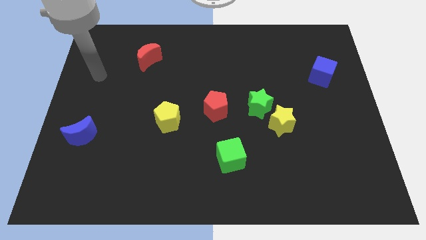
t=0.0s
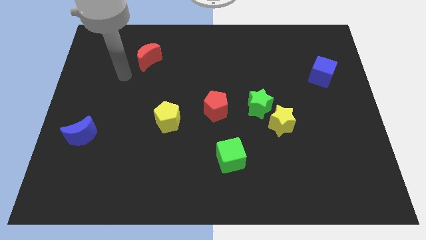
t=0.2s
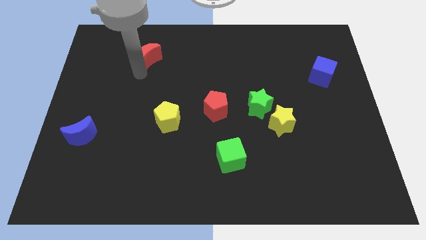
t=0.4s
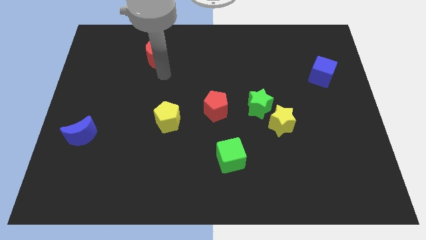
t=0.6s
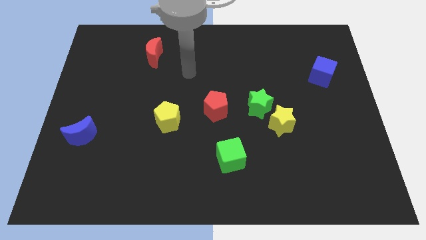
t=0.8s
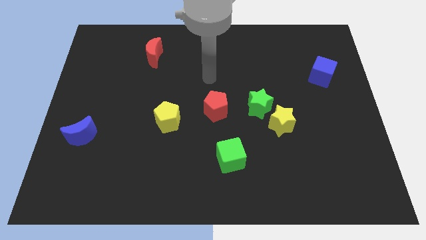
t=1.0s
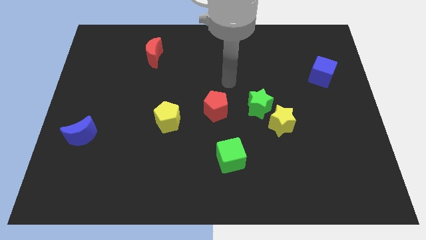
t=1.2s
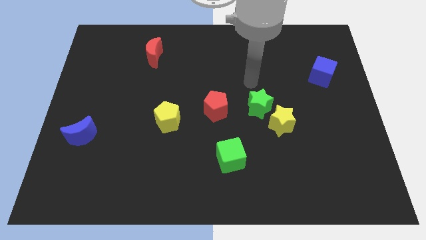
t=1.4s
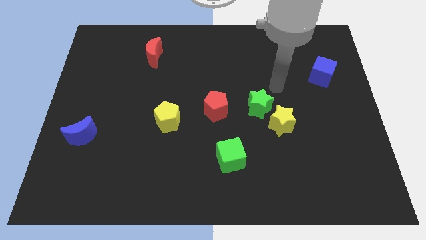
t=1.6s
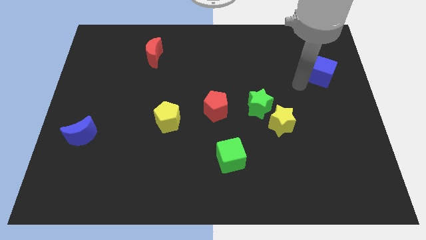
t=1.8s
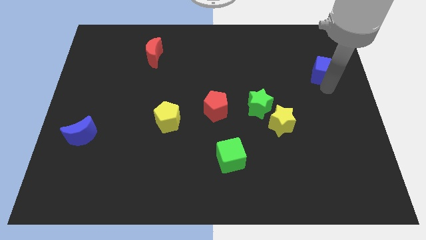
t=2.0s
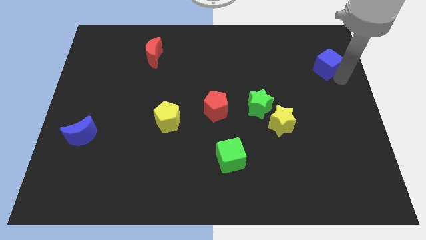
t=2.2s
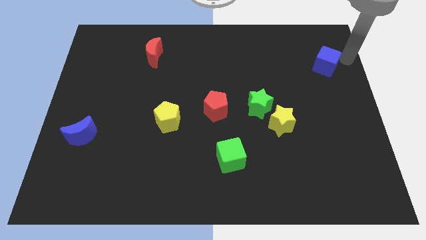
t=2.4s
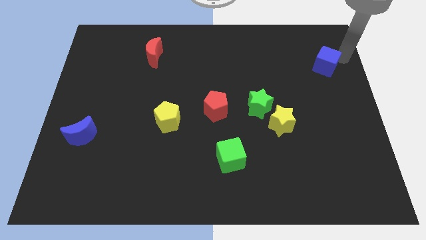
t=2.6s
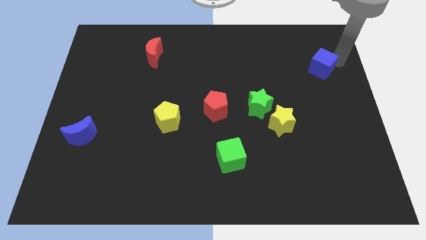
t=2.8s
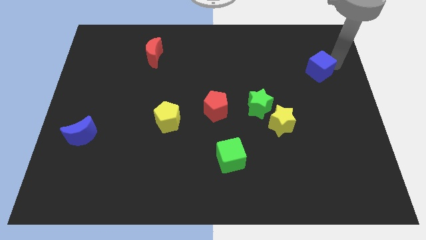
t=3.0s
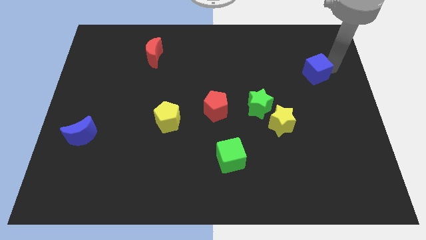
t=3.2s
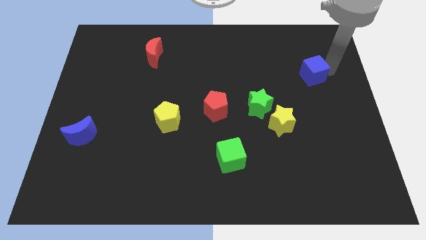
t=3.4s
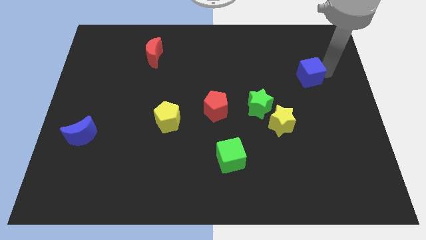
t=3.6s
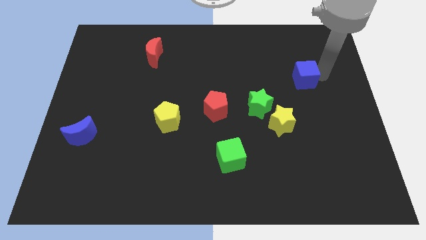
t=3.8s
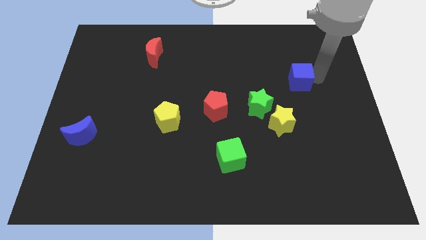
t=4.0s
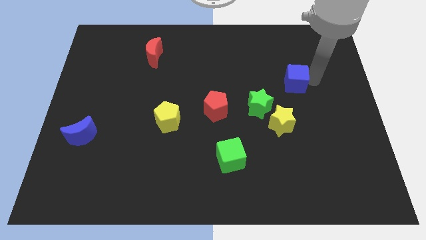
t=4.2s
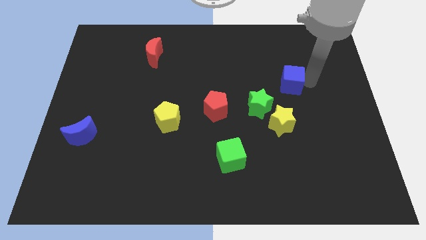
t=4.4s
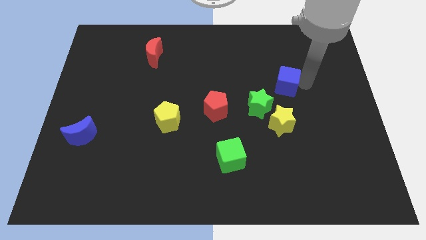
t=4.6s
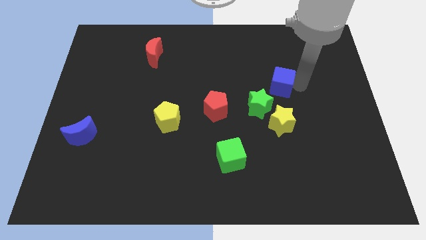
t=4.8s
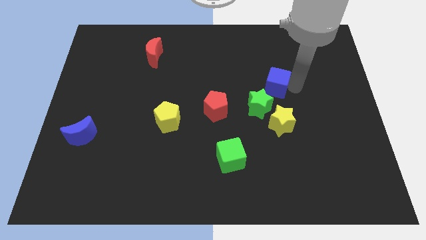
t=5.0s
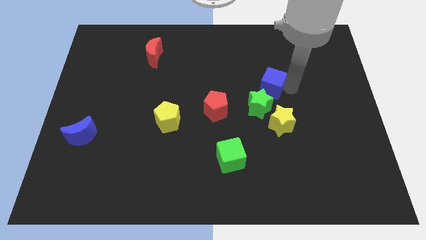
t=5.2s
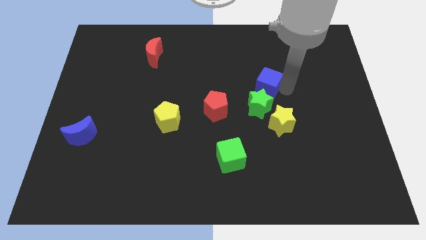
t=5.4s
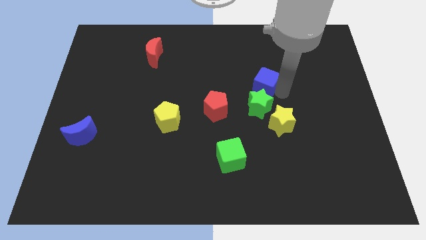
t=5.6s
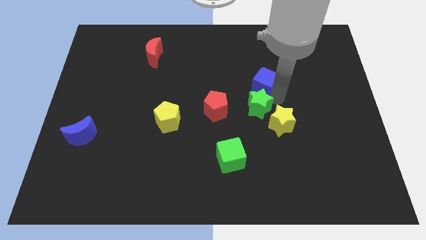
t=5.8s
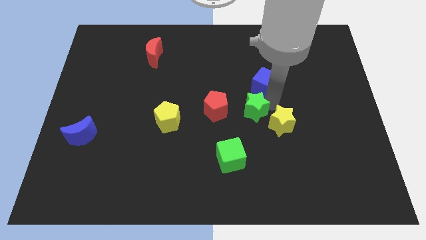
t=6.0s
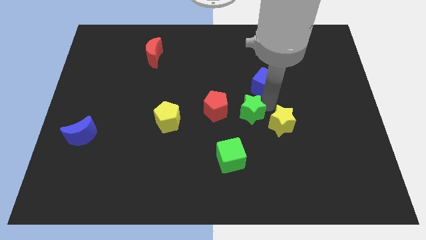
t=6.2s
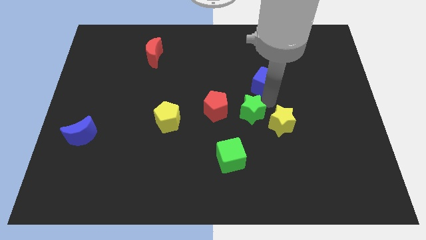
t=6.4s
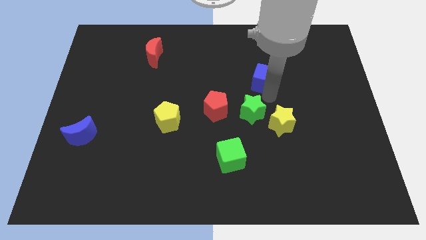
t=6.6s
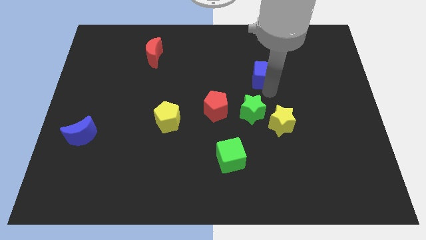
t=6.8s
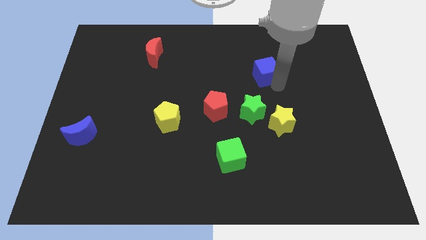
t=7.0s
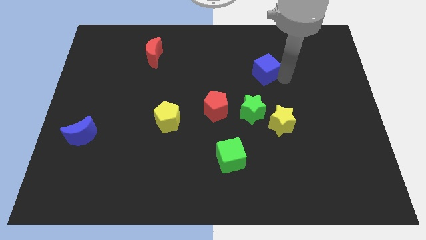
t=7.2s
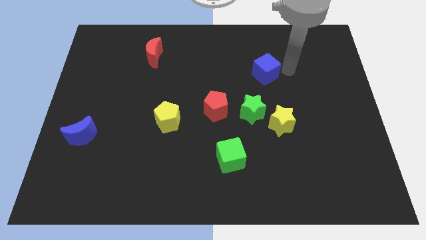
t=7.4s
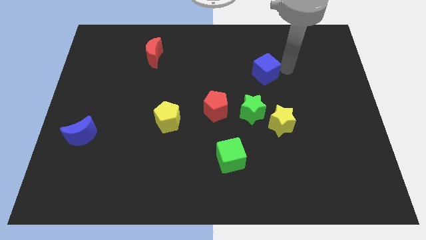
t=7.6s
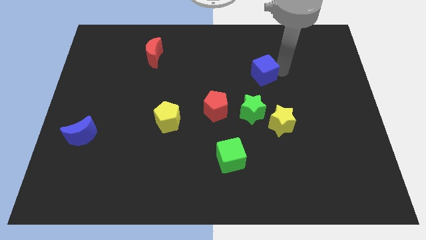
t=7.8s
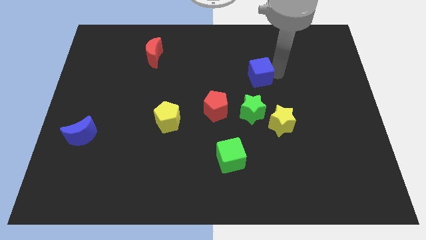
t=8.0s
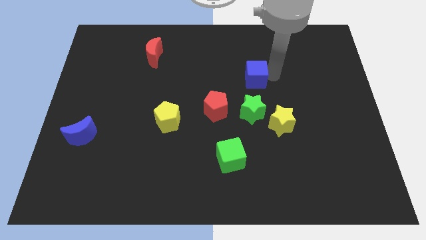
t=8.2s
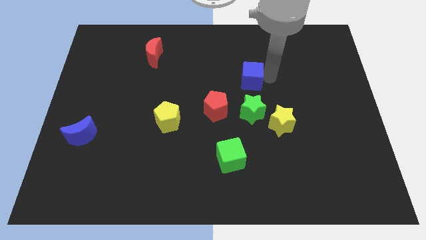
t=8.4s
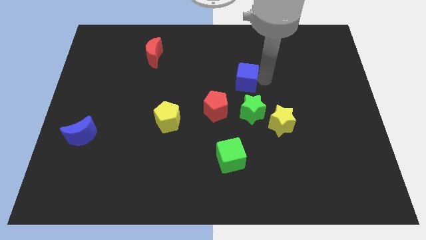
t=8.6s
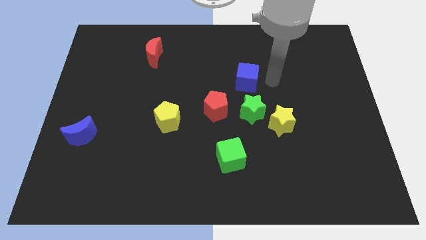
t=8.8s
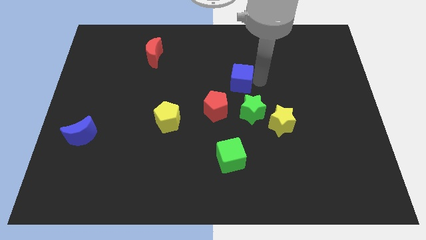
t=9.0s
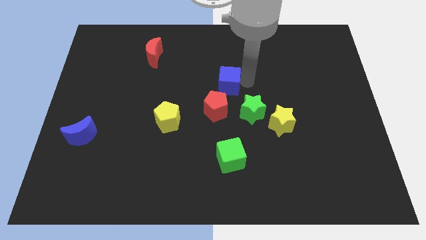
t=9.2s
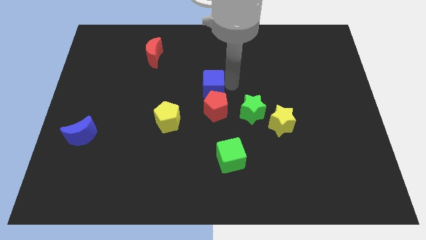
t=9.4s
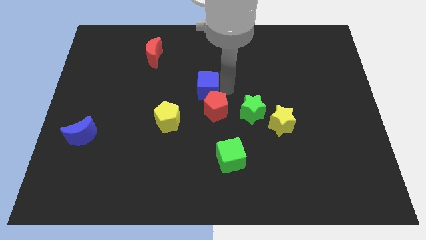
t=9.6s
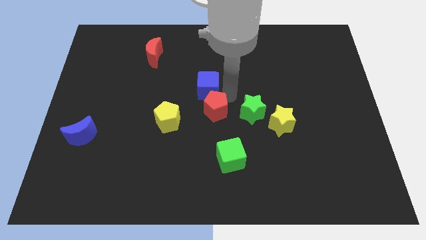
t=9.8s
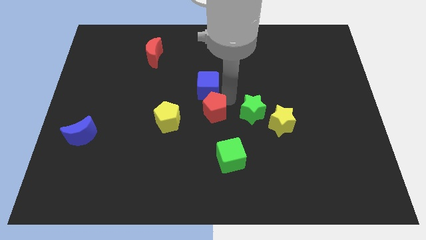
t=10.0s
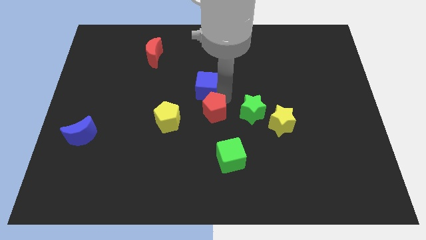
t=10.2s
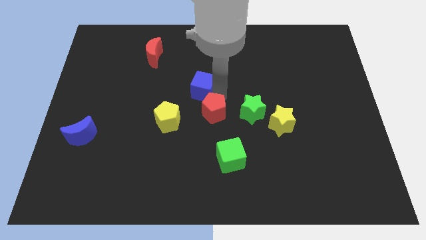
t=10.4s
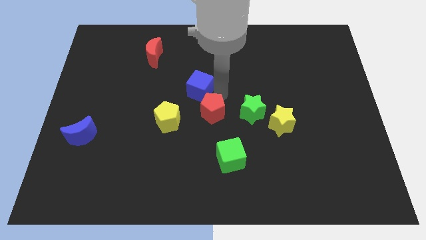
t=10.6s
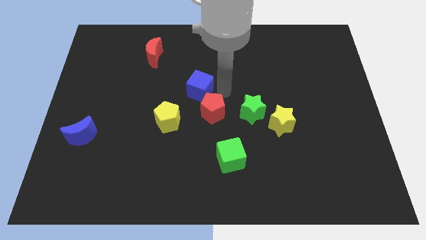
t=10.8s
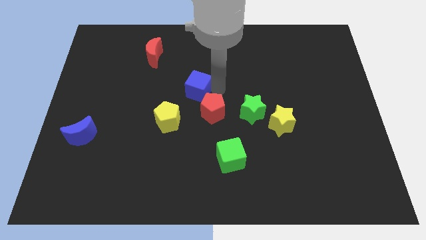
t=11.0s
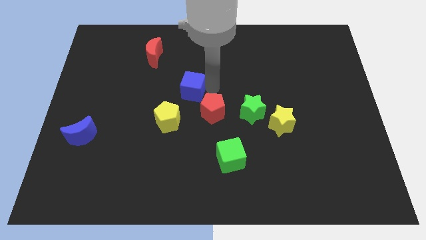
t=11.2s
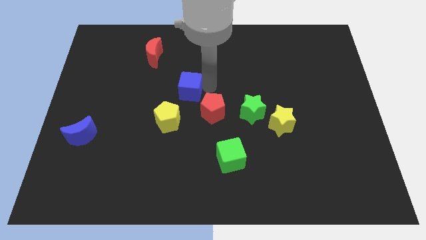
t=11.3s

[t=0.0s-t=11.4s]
put the blue cube above the yellow pentagon

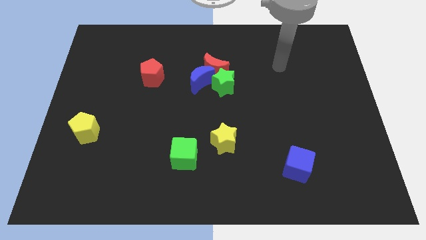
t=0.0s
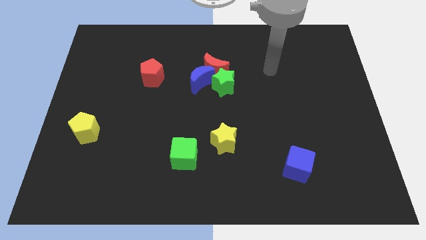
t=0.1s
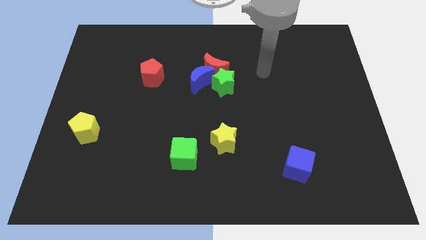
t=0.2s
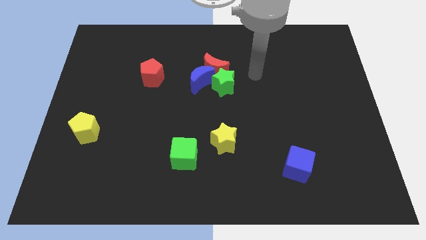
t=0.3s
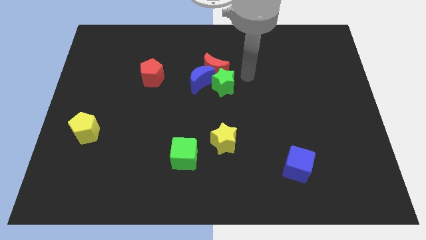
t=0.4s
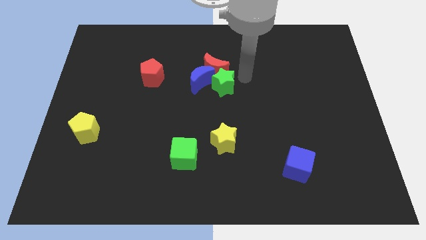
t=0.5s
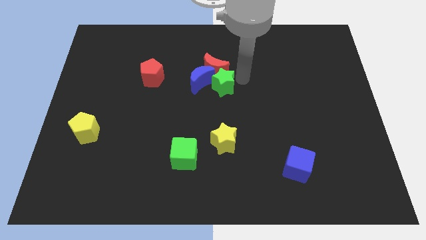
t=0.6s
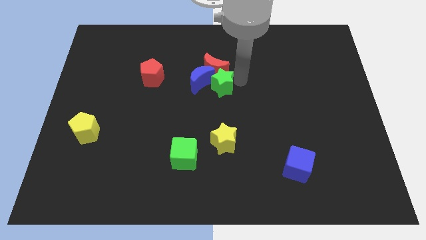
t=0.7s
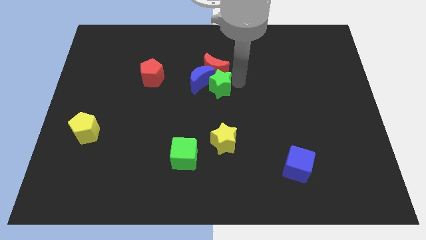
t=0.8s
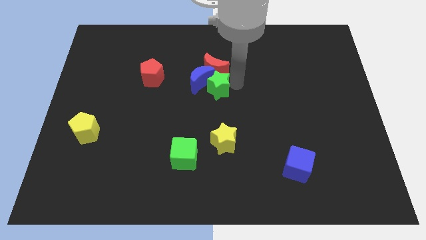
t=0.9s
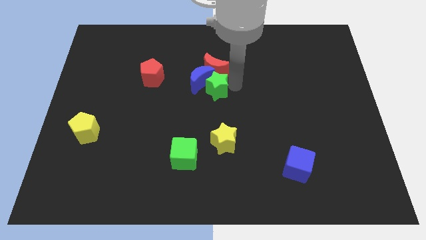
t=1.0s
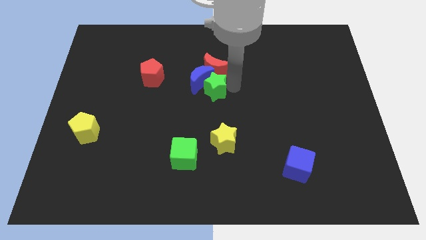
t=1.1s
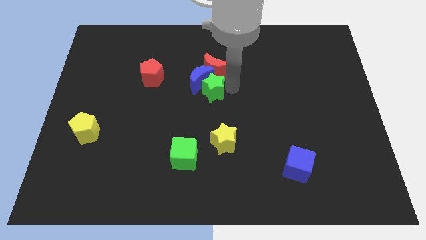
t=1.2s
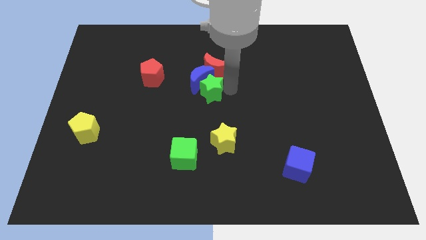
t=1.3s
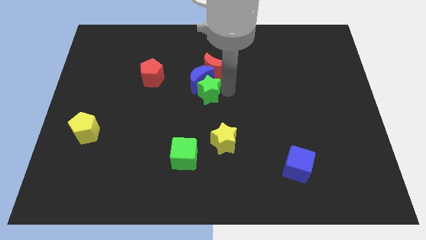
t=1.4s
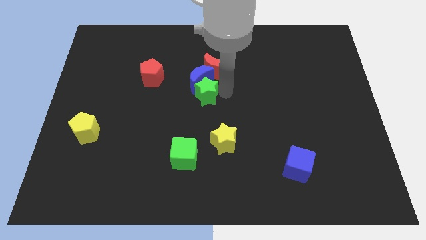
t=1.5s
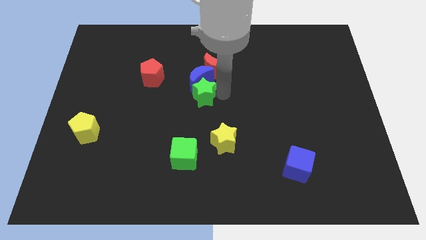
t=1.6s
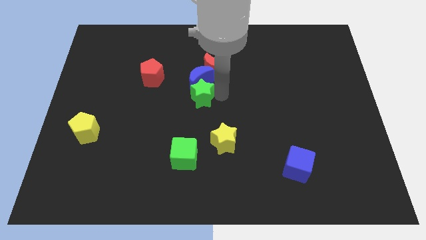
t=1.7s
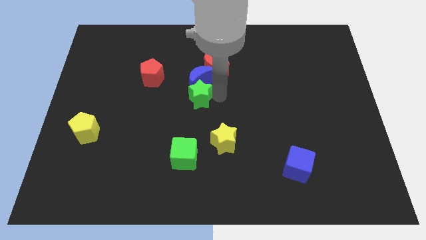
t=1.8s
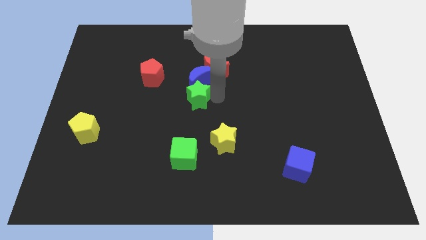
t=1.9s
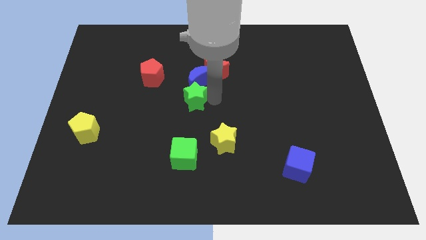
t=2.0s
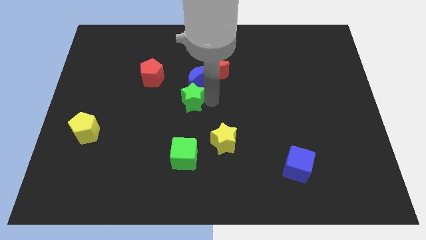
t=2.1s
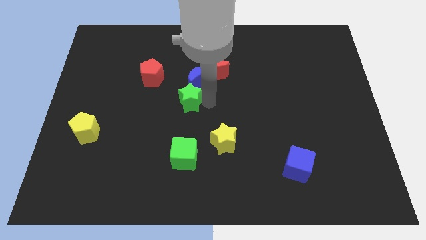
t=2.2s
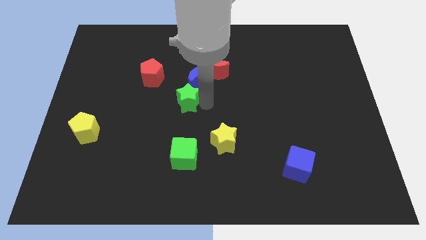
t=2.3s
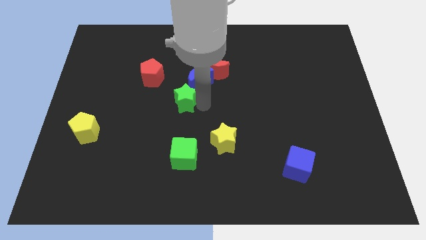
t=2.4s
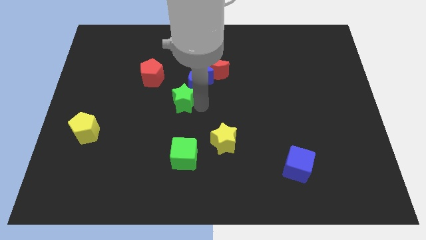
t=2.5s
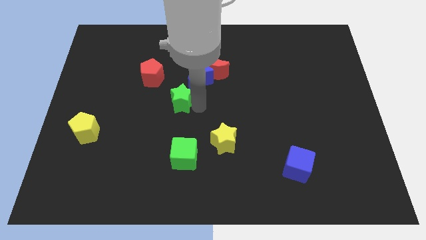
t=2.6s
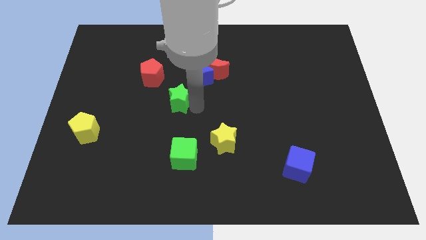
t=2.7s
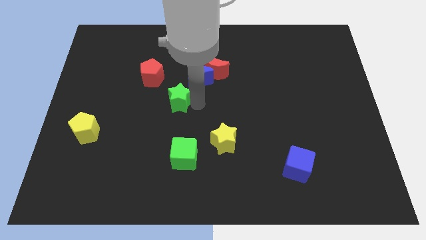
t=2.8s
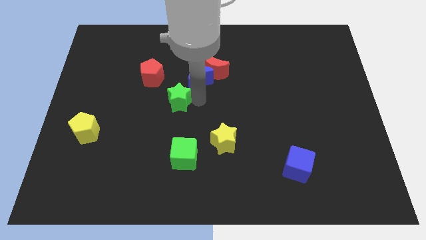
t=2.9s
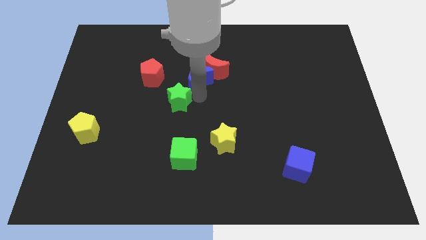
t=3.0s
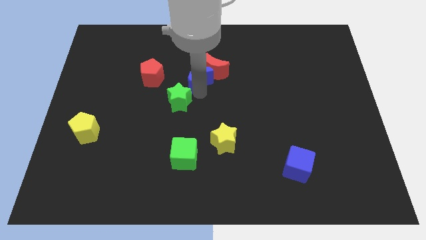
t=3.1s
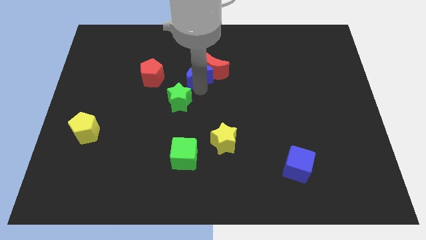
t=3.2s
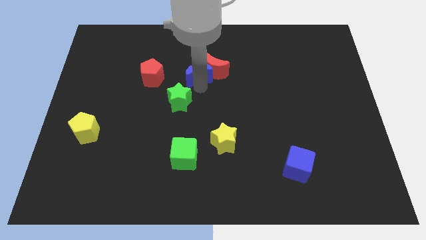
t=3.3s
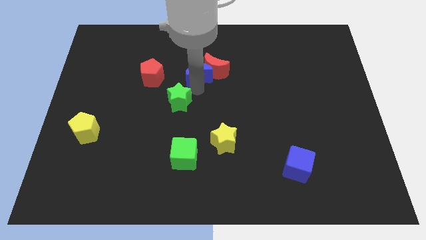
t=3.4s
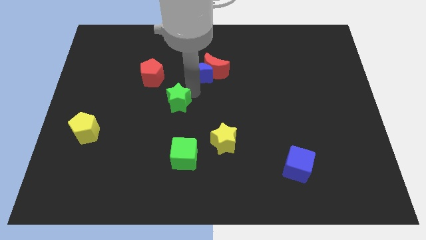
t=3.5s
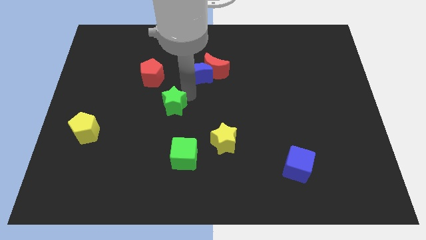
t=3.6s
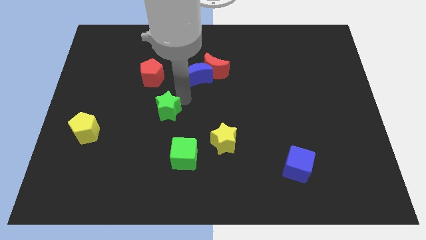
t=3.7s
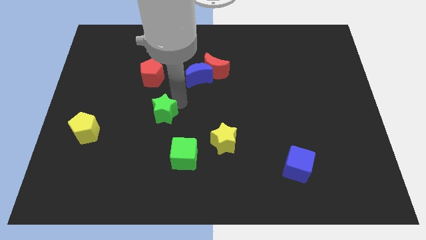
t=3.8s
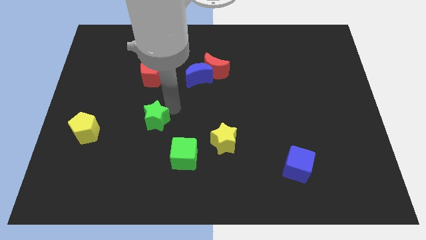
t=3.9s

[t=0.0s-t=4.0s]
push the green star just right of the yellow pentagon
